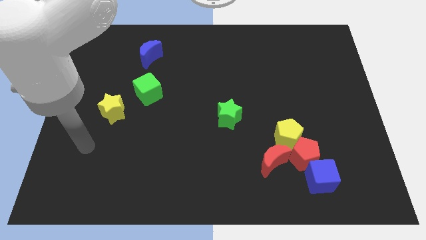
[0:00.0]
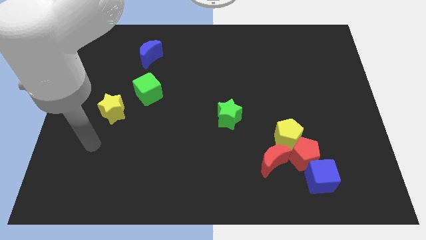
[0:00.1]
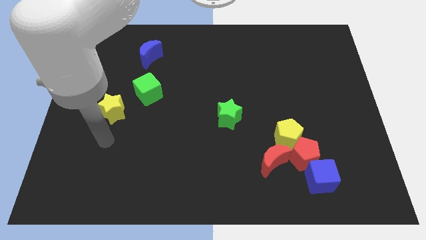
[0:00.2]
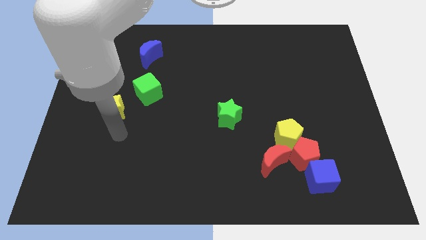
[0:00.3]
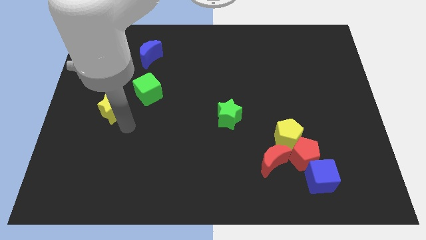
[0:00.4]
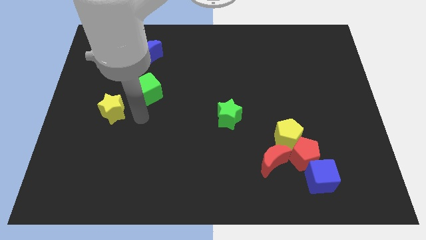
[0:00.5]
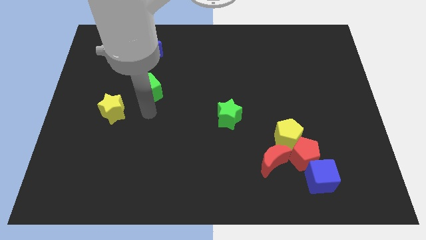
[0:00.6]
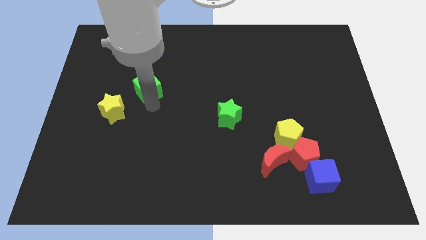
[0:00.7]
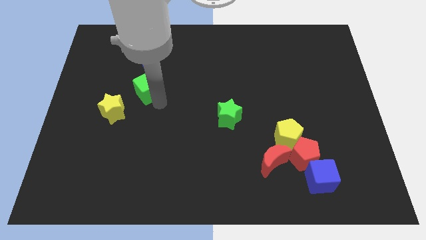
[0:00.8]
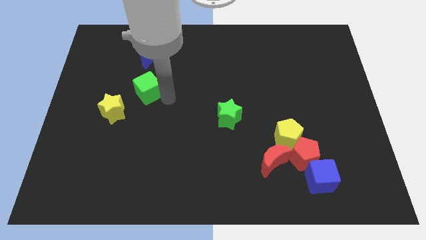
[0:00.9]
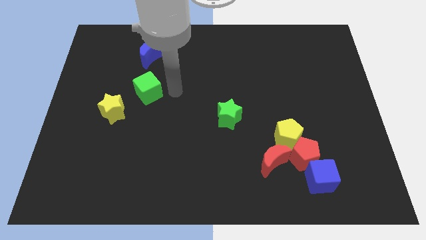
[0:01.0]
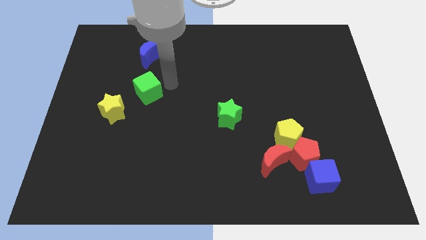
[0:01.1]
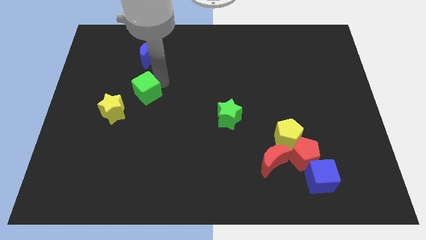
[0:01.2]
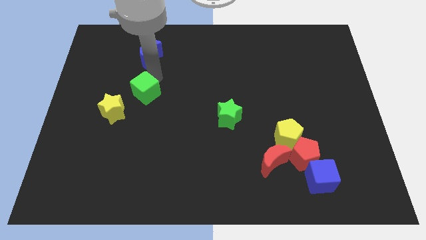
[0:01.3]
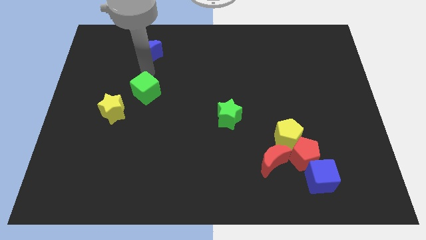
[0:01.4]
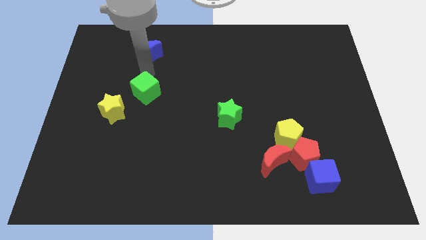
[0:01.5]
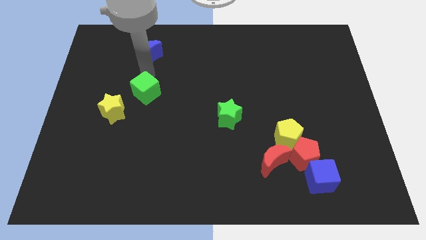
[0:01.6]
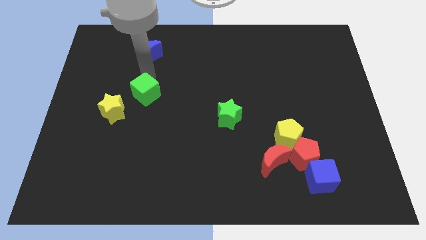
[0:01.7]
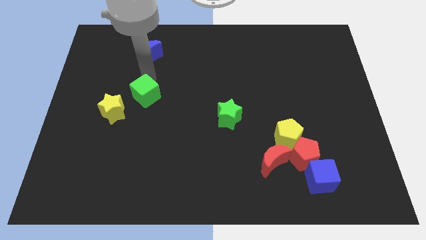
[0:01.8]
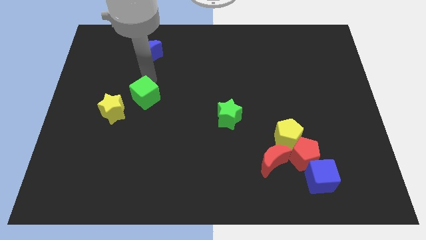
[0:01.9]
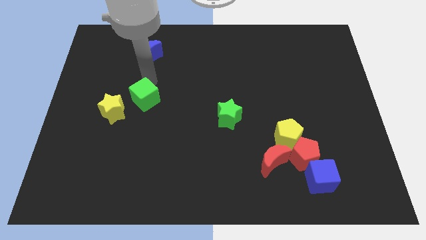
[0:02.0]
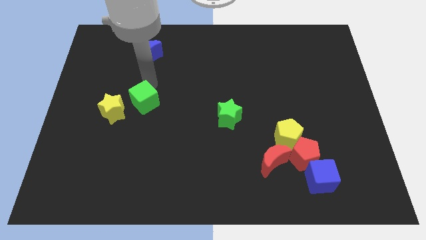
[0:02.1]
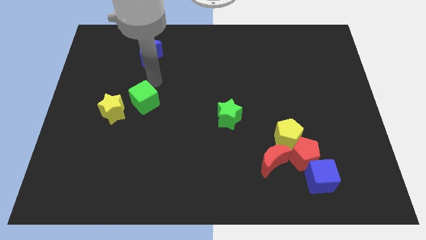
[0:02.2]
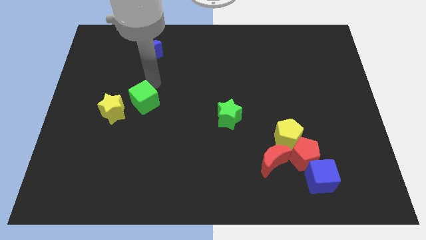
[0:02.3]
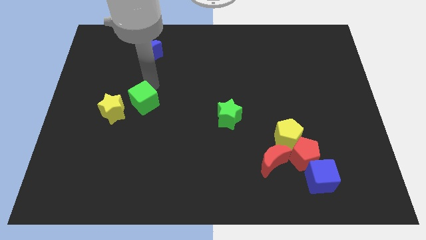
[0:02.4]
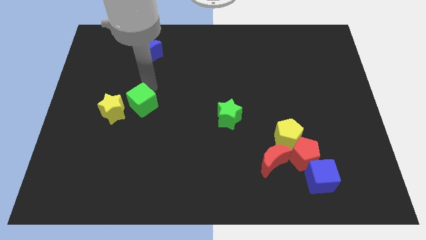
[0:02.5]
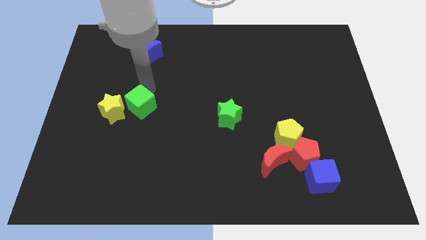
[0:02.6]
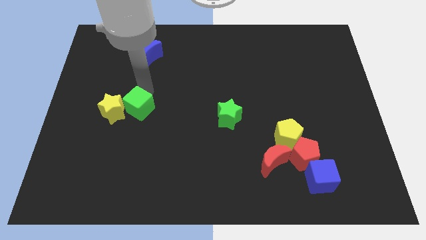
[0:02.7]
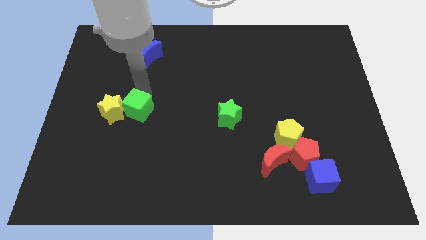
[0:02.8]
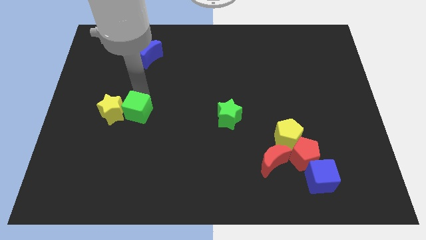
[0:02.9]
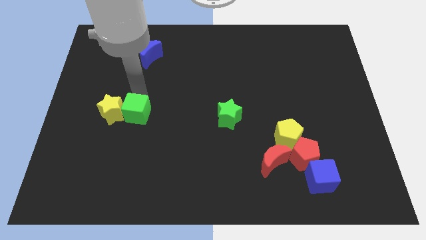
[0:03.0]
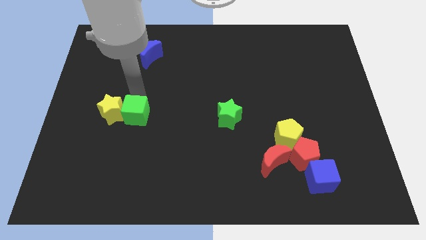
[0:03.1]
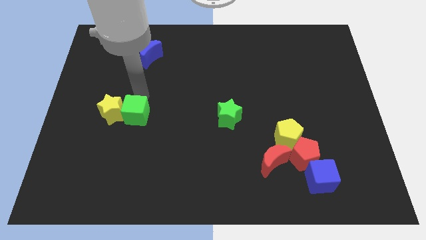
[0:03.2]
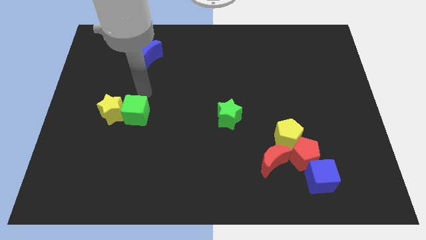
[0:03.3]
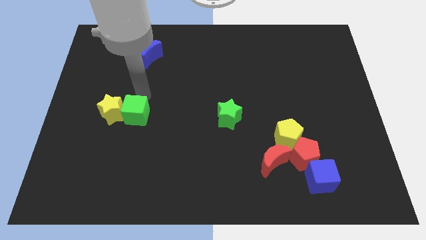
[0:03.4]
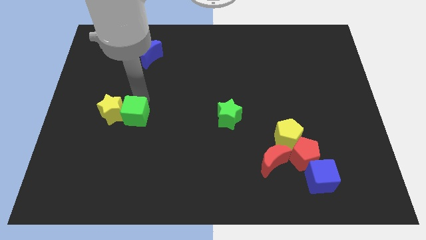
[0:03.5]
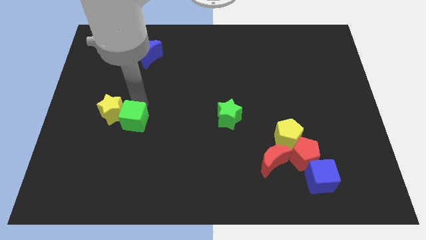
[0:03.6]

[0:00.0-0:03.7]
move the green cube somewhat down

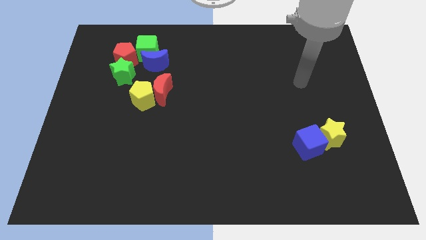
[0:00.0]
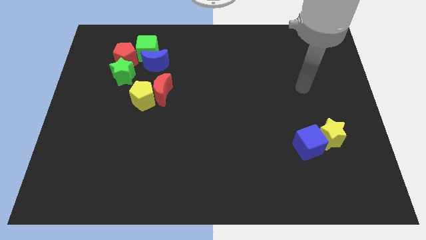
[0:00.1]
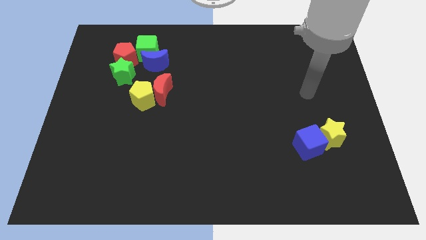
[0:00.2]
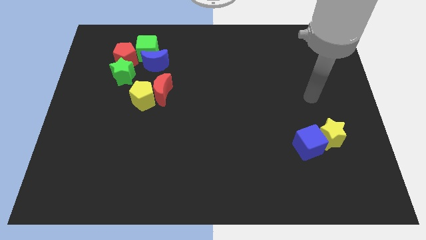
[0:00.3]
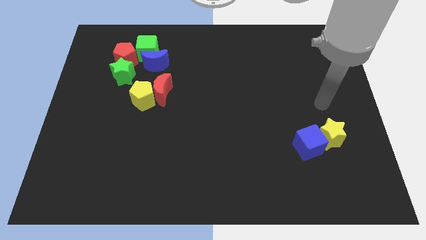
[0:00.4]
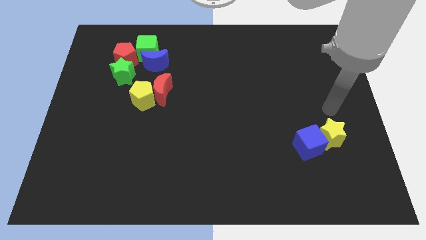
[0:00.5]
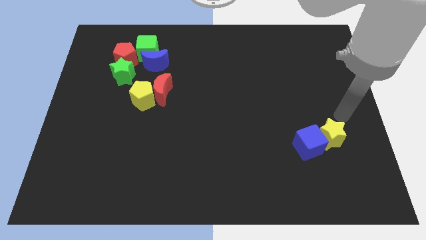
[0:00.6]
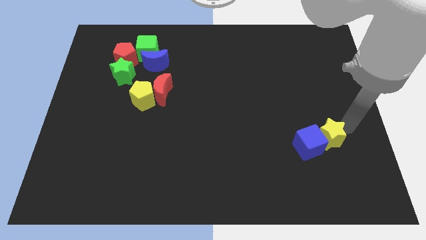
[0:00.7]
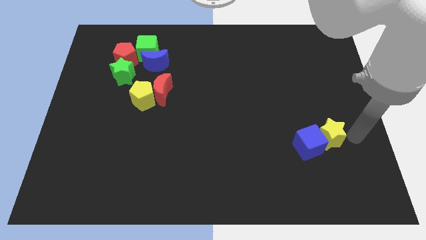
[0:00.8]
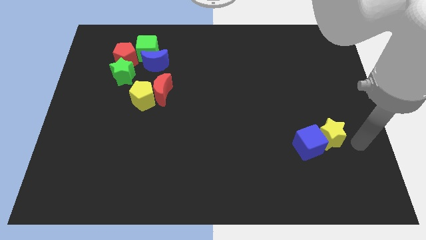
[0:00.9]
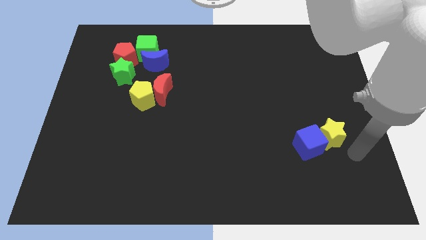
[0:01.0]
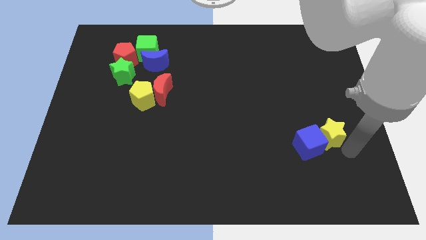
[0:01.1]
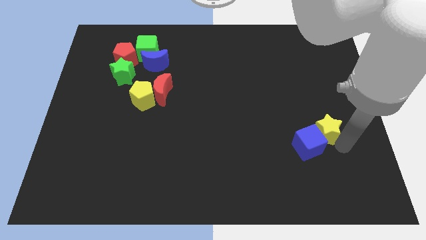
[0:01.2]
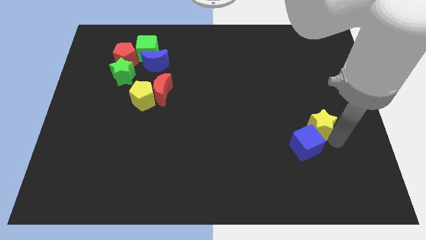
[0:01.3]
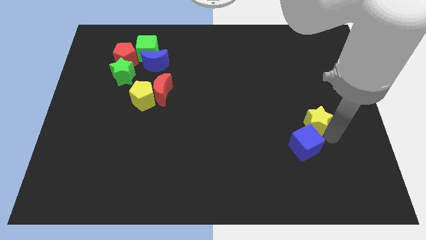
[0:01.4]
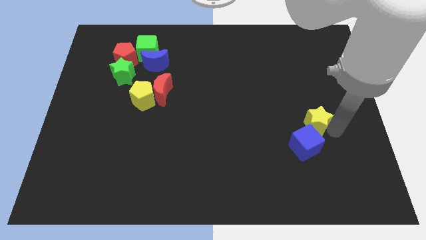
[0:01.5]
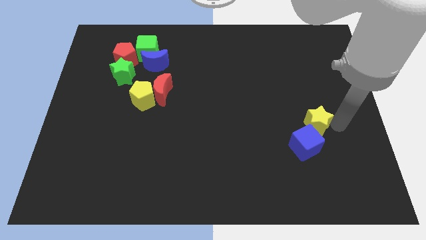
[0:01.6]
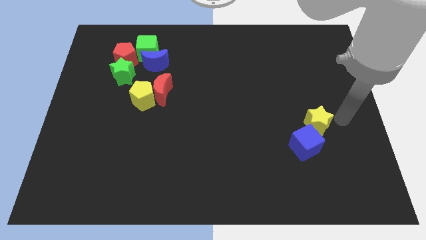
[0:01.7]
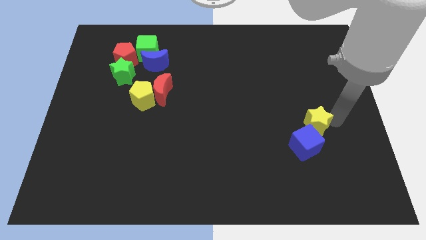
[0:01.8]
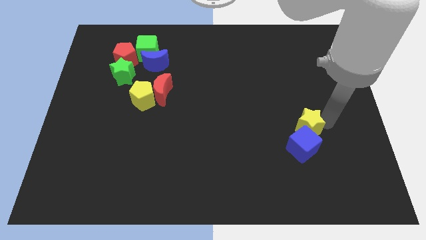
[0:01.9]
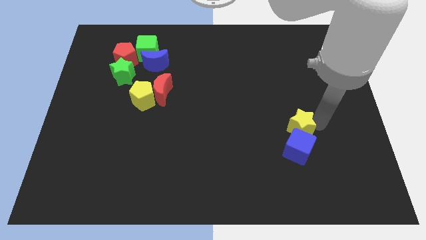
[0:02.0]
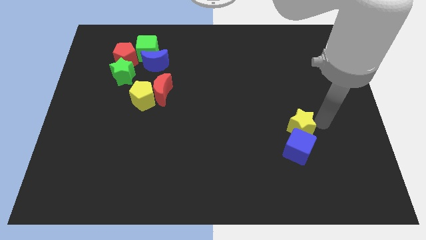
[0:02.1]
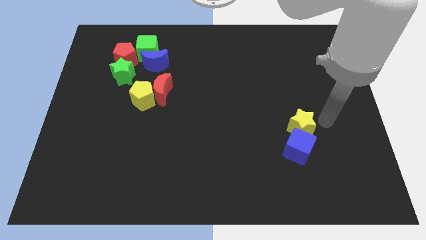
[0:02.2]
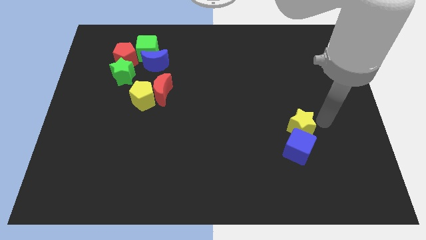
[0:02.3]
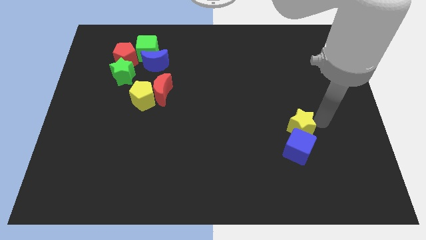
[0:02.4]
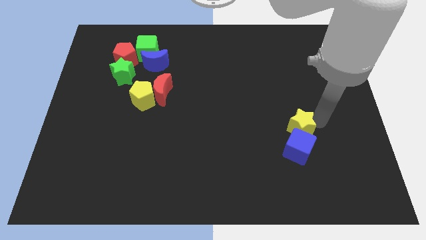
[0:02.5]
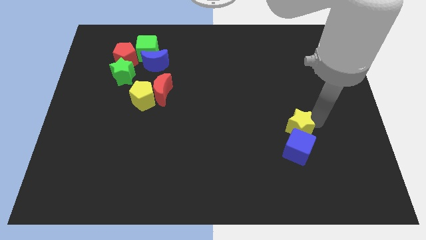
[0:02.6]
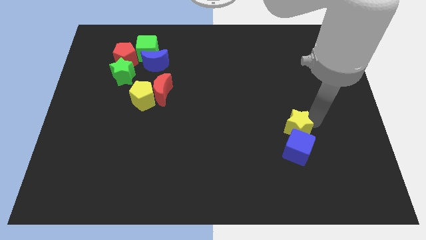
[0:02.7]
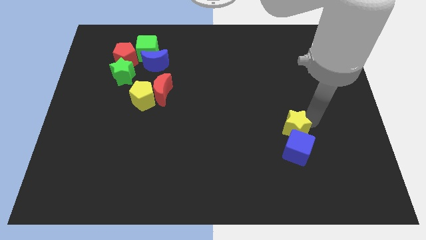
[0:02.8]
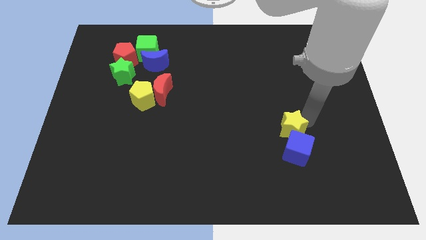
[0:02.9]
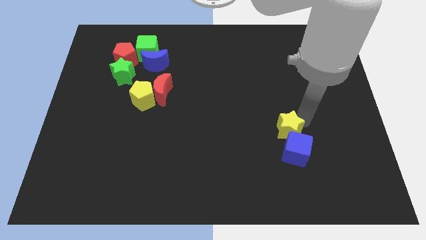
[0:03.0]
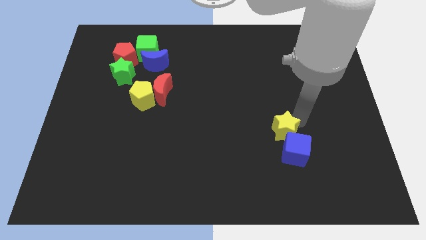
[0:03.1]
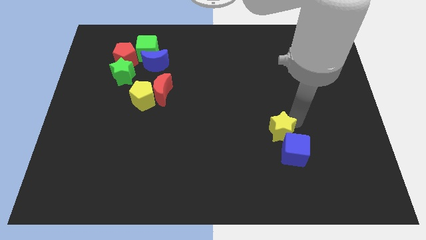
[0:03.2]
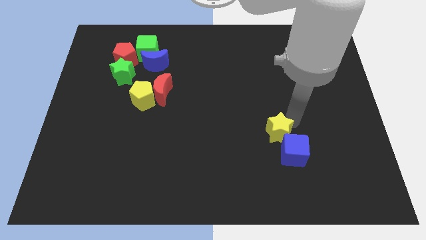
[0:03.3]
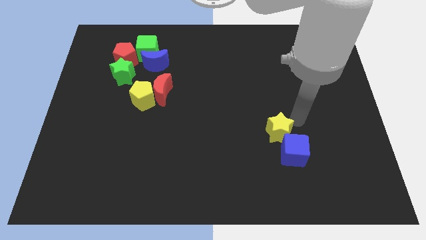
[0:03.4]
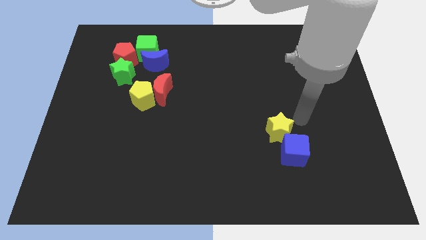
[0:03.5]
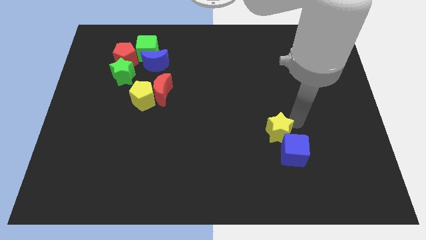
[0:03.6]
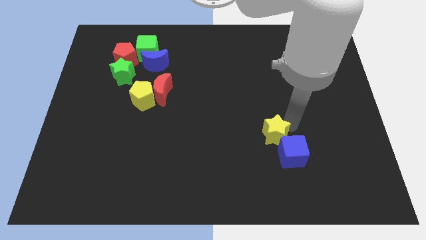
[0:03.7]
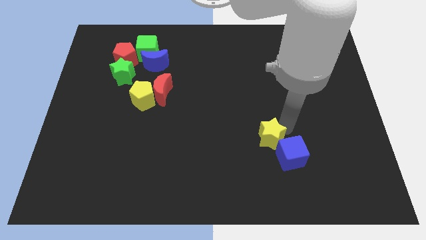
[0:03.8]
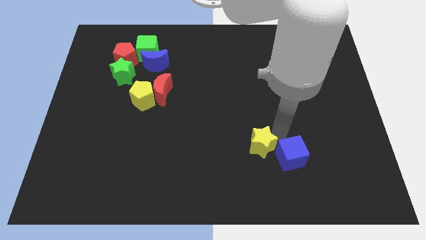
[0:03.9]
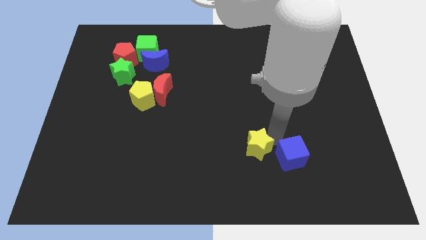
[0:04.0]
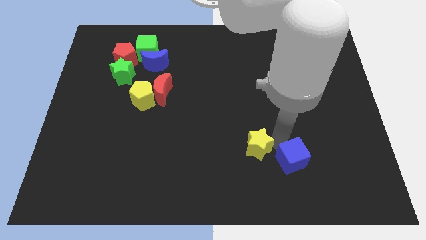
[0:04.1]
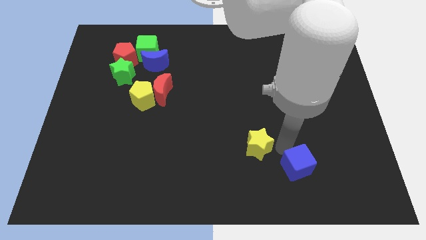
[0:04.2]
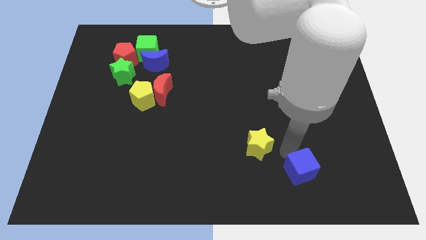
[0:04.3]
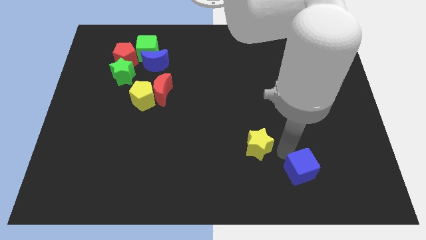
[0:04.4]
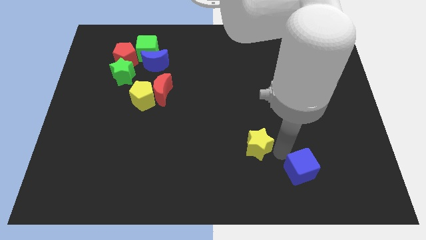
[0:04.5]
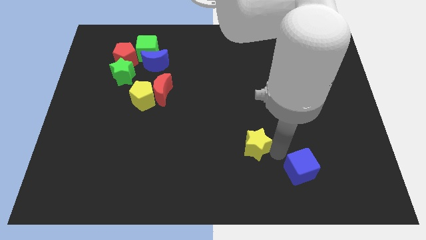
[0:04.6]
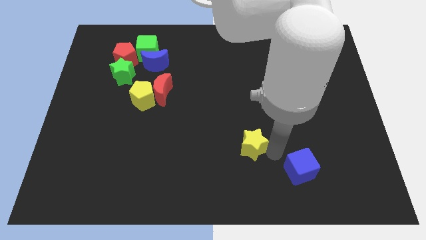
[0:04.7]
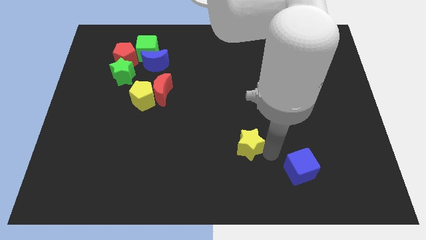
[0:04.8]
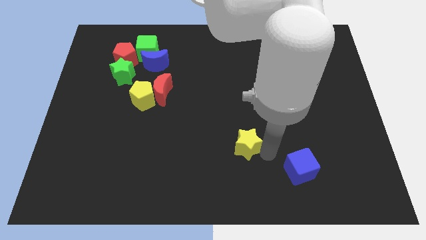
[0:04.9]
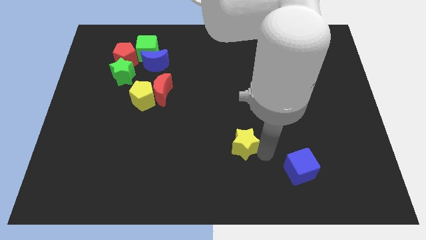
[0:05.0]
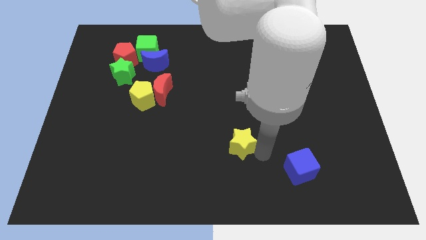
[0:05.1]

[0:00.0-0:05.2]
slide the yellow star to the left
